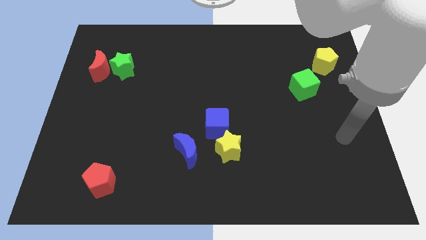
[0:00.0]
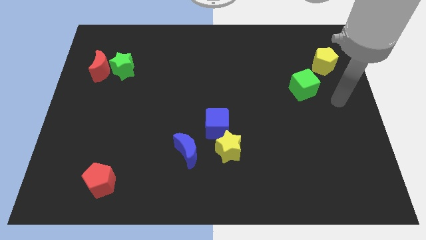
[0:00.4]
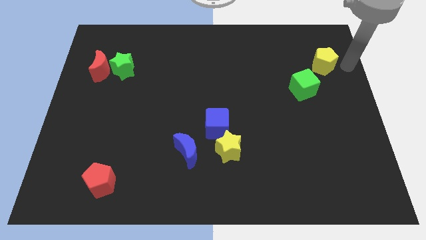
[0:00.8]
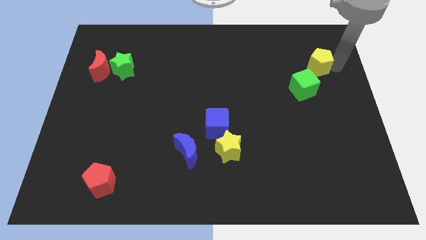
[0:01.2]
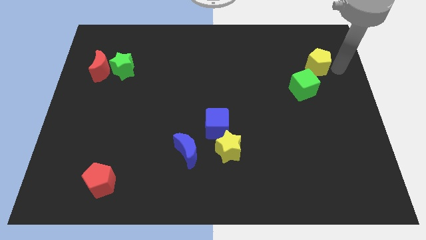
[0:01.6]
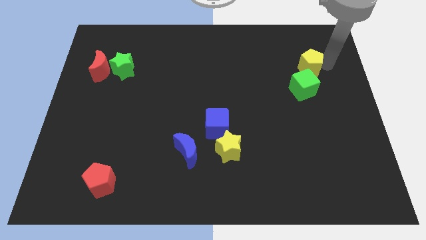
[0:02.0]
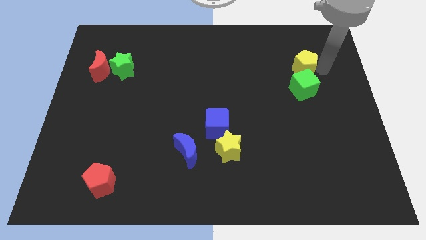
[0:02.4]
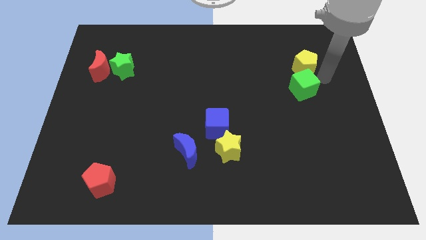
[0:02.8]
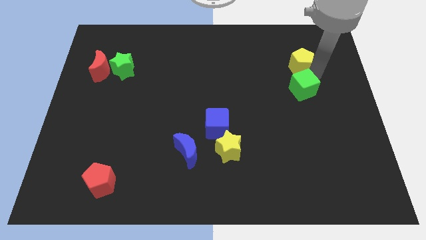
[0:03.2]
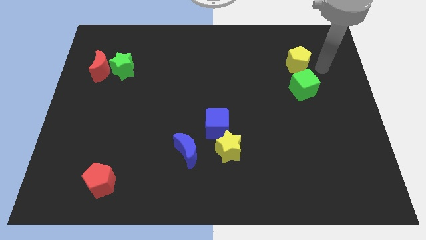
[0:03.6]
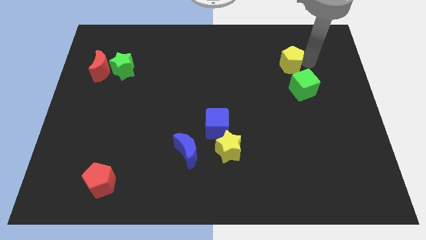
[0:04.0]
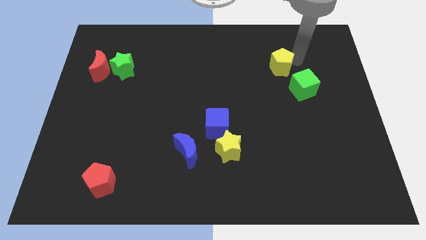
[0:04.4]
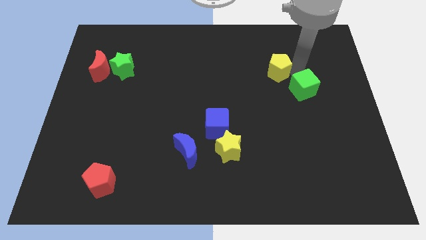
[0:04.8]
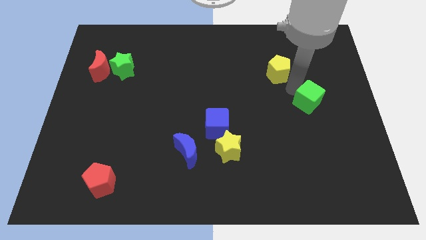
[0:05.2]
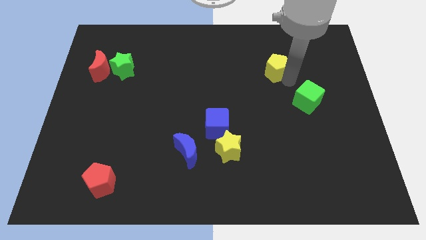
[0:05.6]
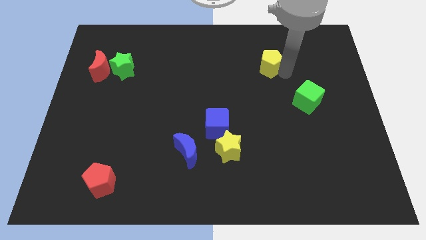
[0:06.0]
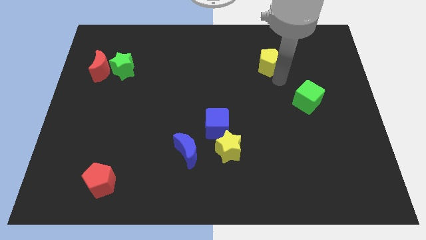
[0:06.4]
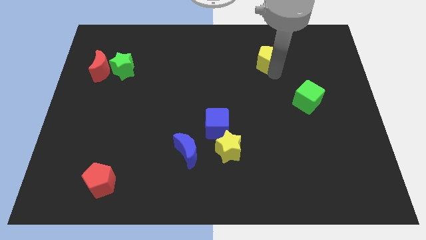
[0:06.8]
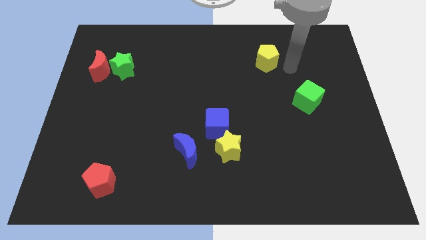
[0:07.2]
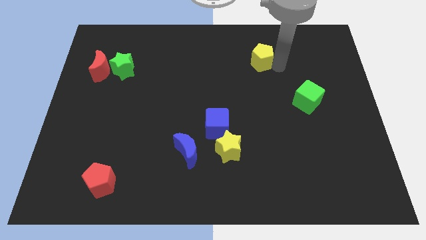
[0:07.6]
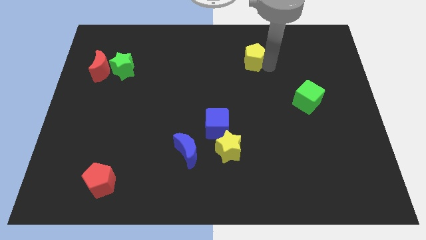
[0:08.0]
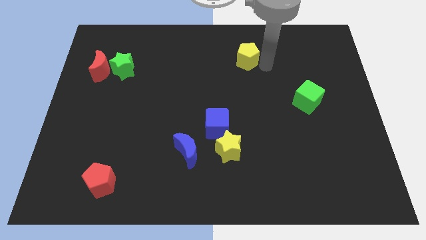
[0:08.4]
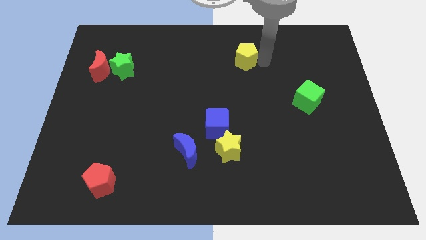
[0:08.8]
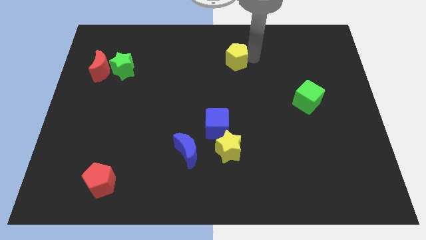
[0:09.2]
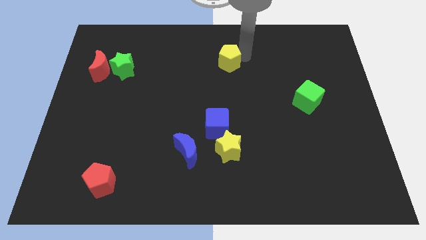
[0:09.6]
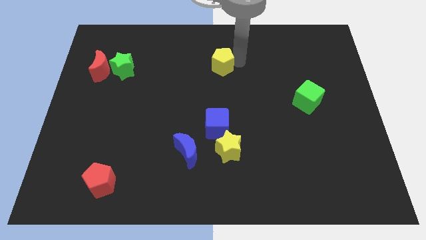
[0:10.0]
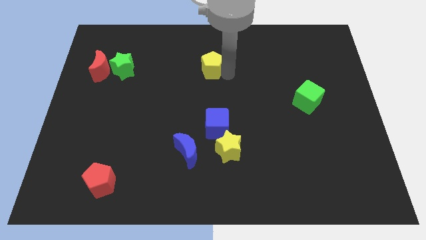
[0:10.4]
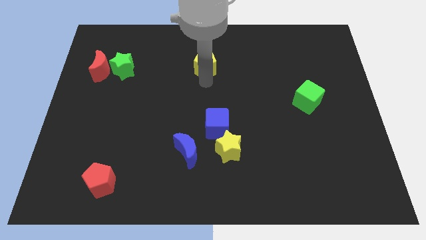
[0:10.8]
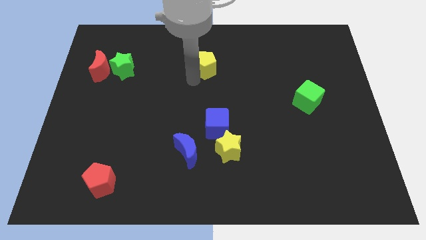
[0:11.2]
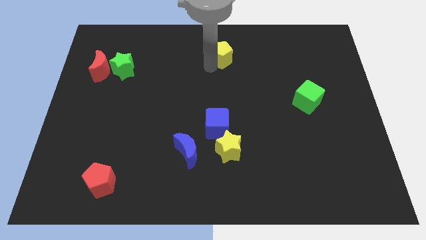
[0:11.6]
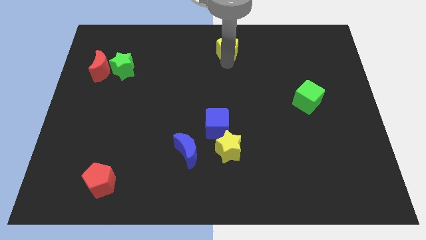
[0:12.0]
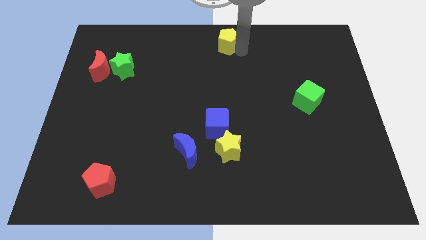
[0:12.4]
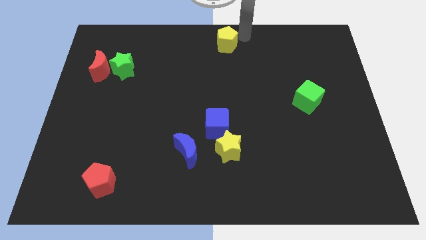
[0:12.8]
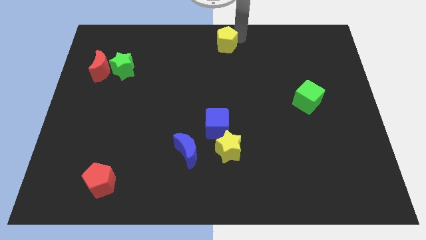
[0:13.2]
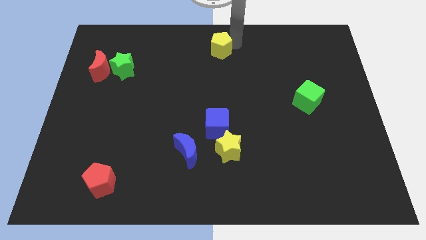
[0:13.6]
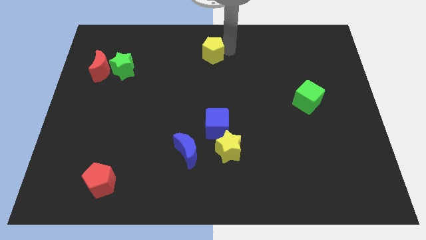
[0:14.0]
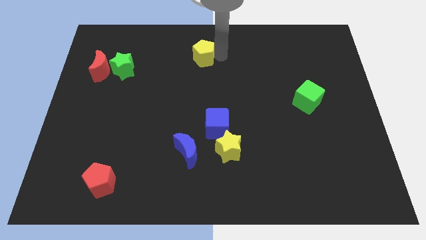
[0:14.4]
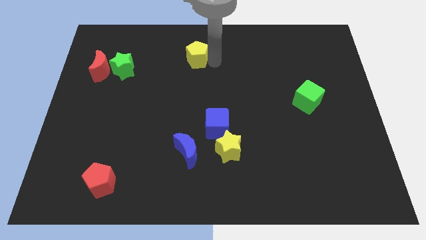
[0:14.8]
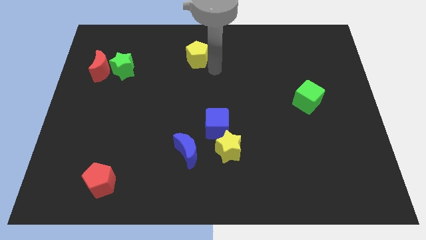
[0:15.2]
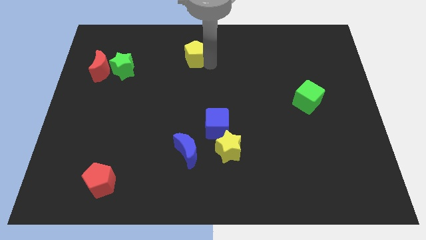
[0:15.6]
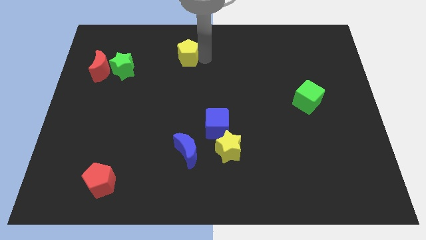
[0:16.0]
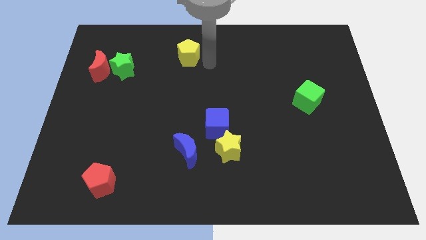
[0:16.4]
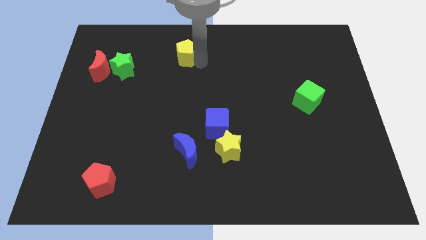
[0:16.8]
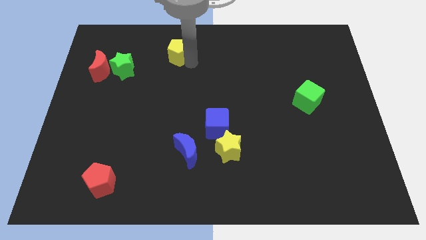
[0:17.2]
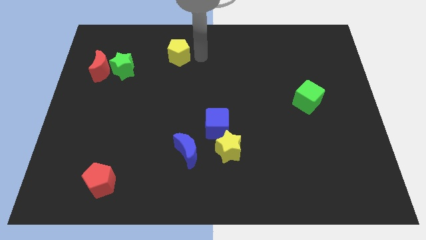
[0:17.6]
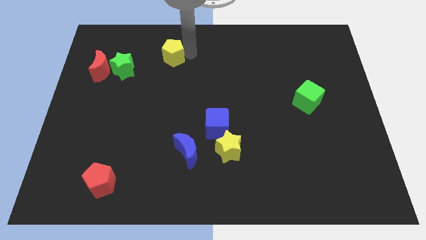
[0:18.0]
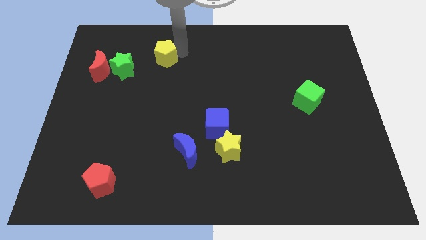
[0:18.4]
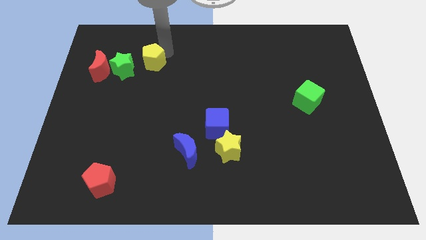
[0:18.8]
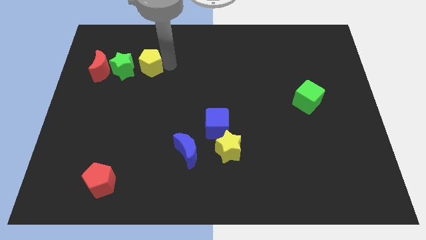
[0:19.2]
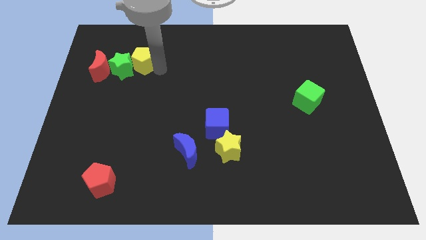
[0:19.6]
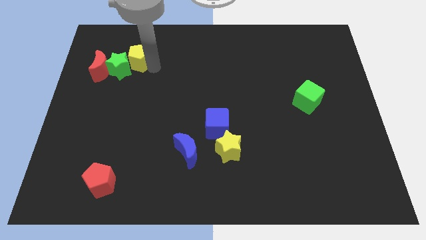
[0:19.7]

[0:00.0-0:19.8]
push the yellow pentagon to the top right side of the red moon

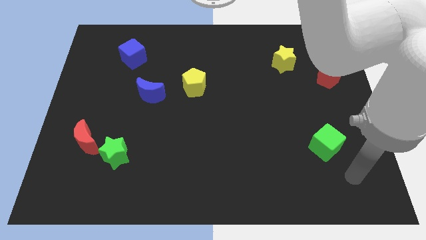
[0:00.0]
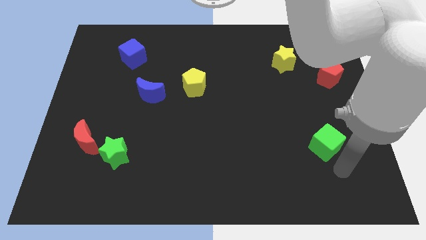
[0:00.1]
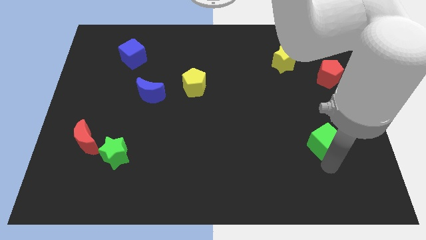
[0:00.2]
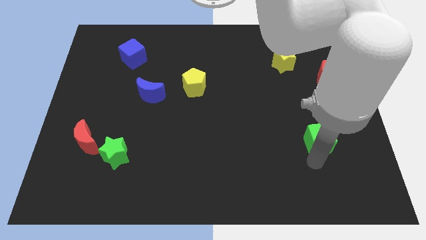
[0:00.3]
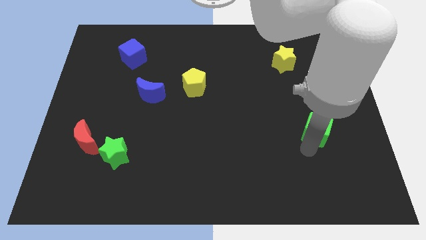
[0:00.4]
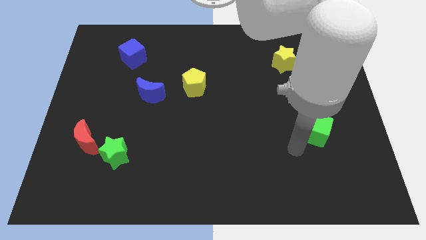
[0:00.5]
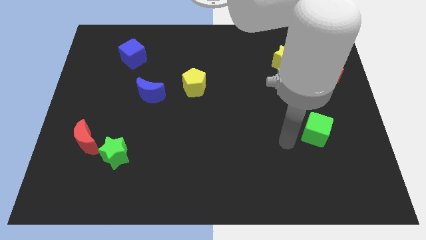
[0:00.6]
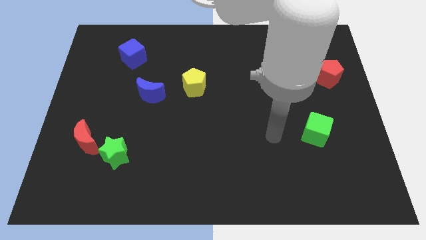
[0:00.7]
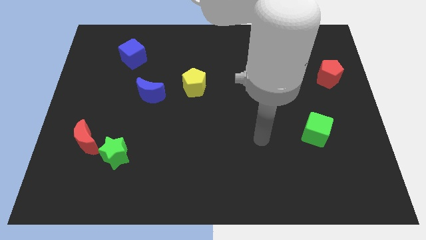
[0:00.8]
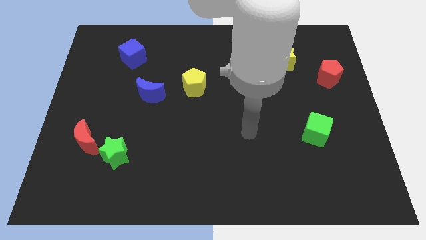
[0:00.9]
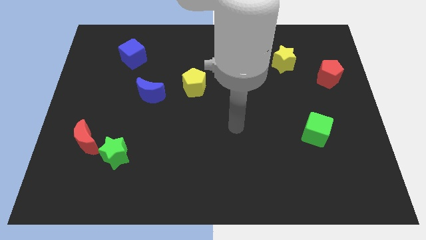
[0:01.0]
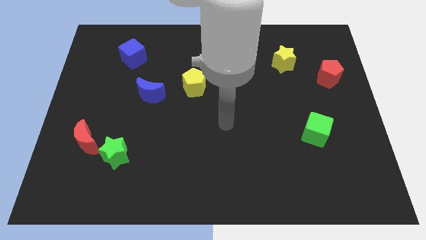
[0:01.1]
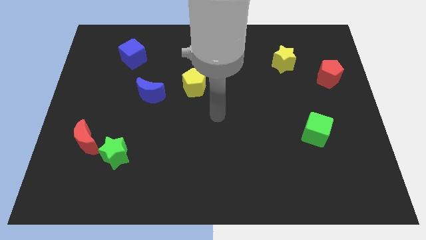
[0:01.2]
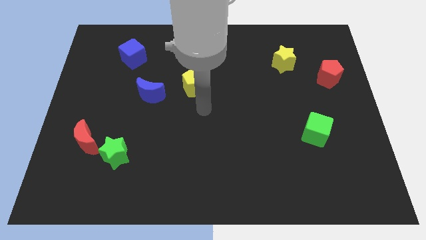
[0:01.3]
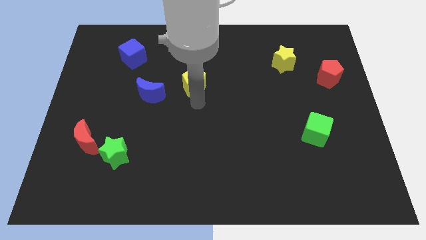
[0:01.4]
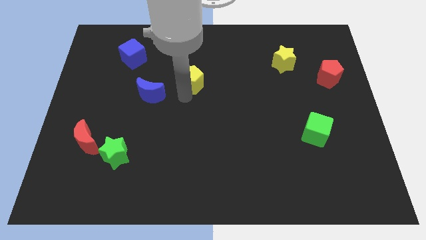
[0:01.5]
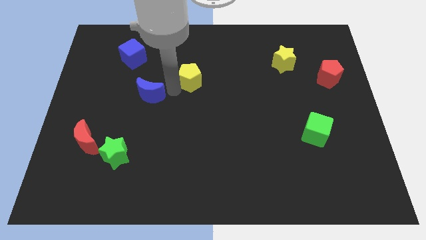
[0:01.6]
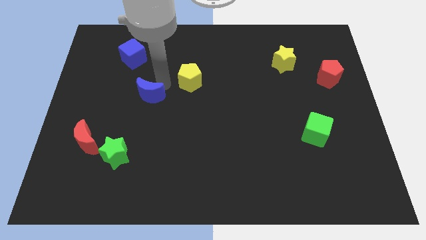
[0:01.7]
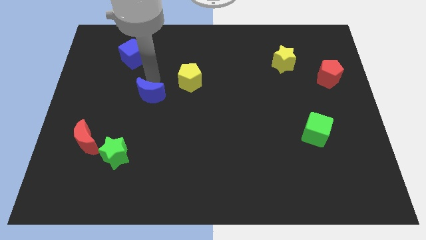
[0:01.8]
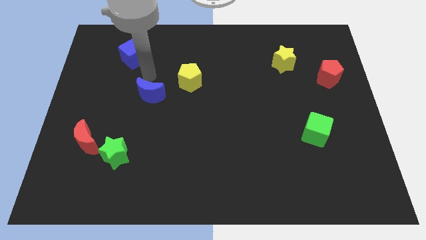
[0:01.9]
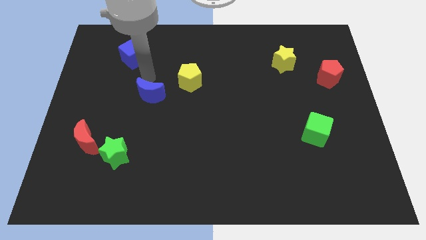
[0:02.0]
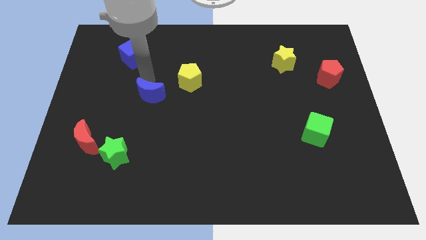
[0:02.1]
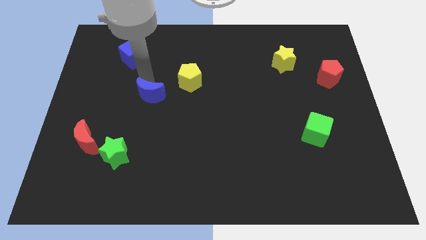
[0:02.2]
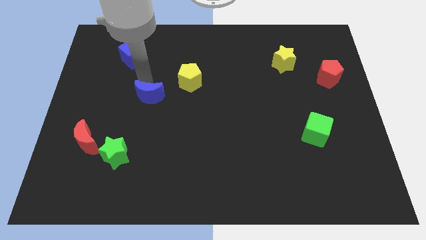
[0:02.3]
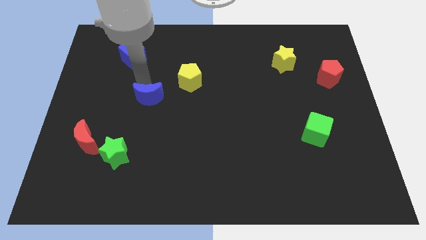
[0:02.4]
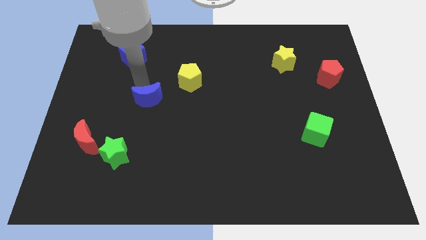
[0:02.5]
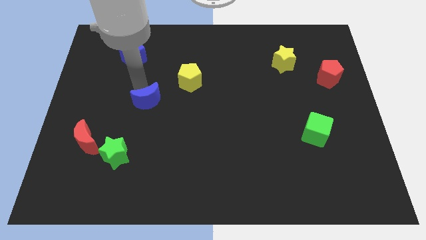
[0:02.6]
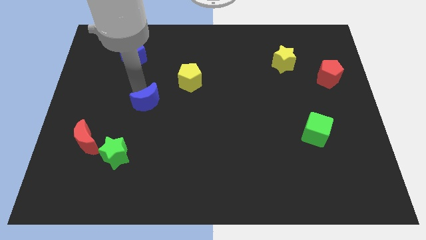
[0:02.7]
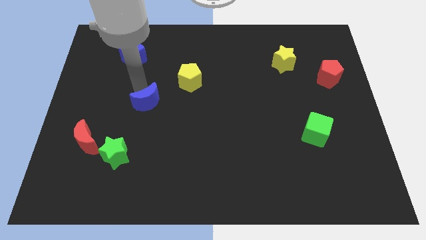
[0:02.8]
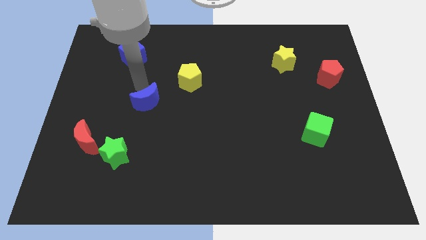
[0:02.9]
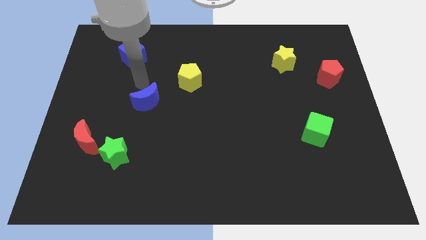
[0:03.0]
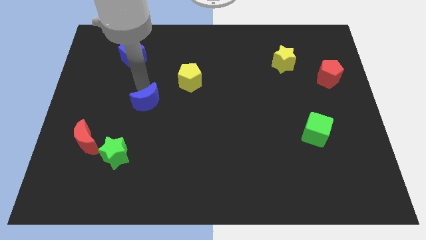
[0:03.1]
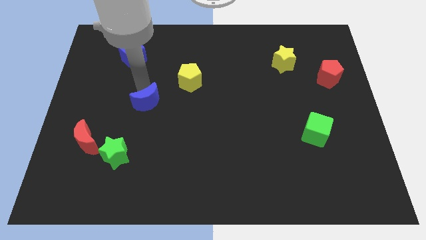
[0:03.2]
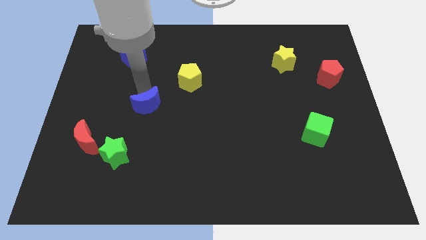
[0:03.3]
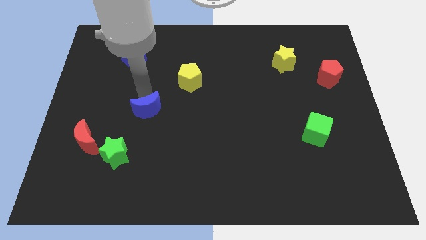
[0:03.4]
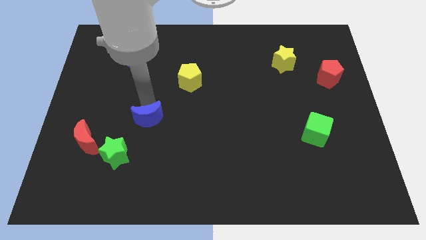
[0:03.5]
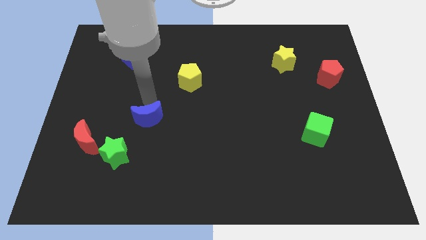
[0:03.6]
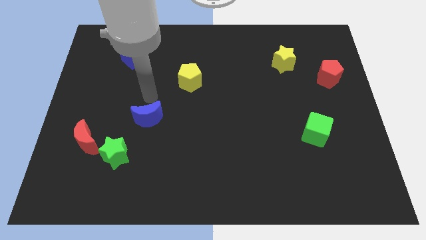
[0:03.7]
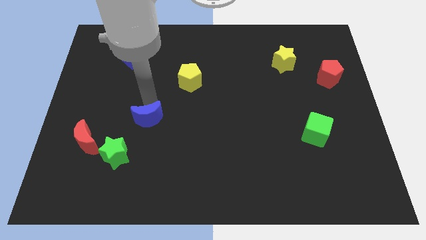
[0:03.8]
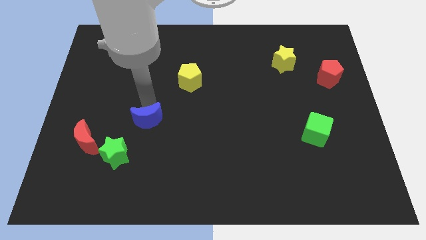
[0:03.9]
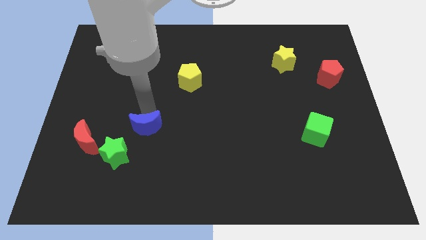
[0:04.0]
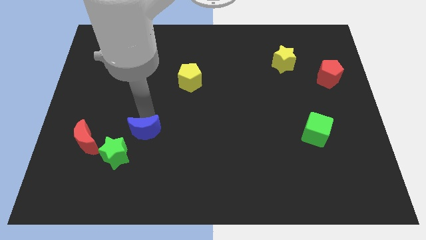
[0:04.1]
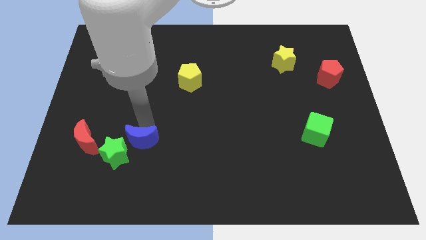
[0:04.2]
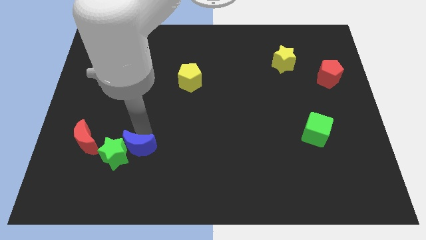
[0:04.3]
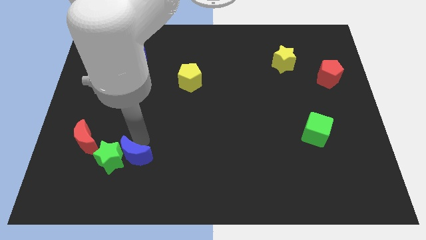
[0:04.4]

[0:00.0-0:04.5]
move the blue moon to the bottom right of the green star
